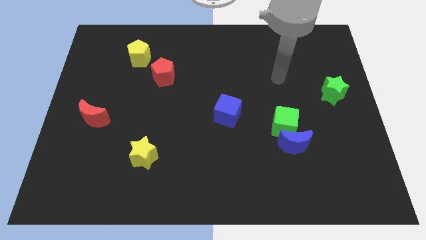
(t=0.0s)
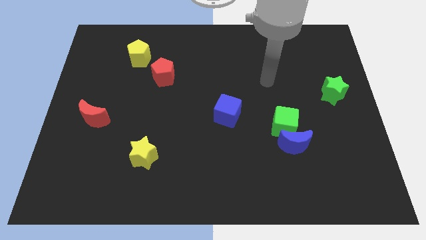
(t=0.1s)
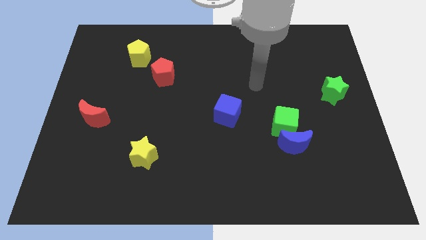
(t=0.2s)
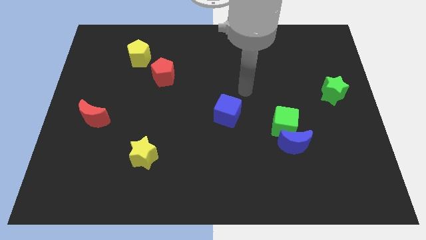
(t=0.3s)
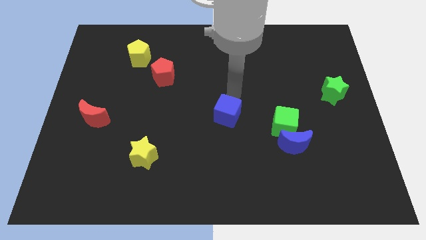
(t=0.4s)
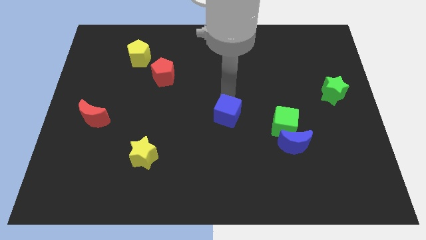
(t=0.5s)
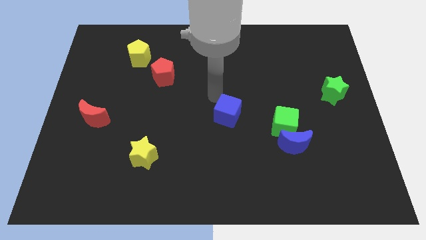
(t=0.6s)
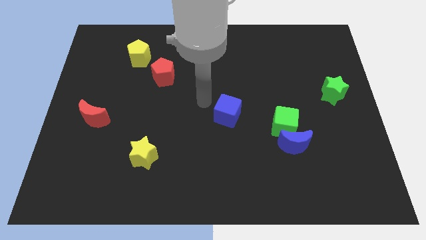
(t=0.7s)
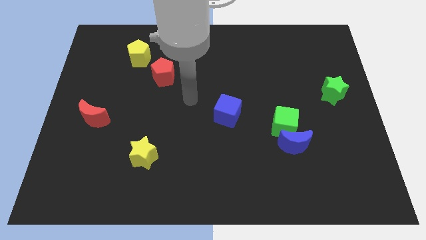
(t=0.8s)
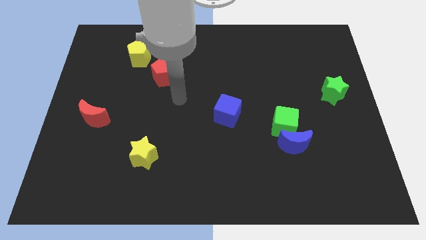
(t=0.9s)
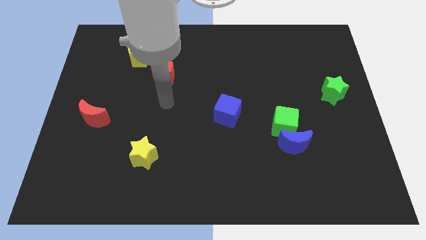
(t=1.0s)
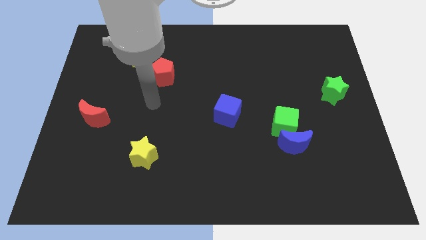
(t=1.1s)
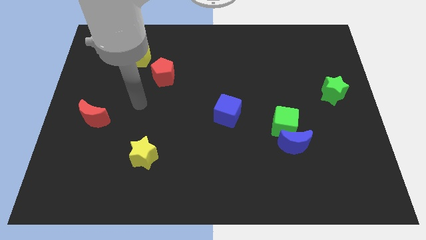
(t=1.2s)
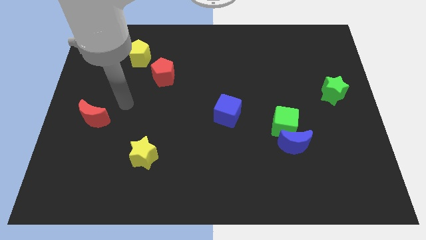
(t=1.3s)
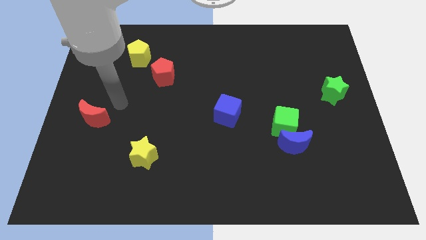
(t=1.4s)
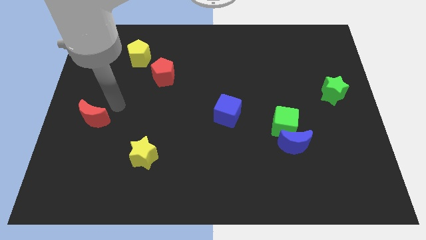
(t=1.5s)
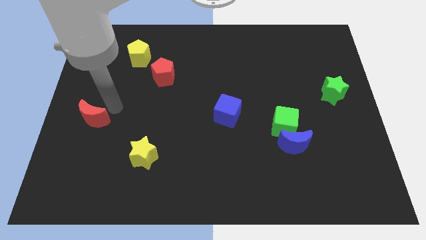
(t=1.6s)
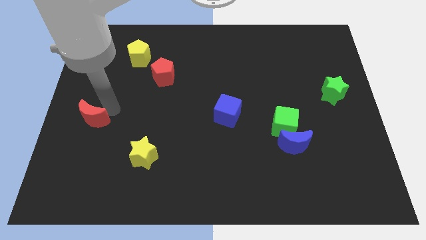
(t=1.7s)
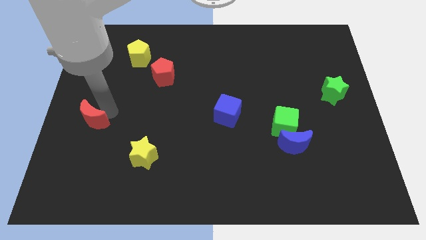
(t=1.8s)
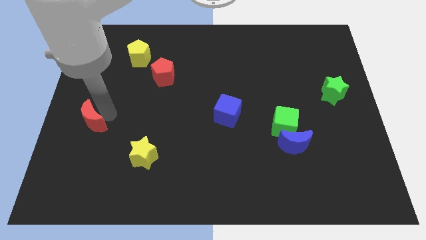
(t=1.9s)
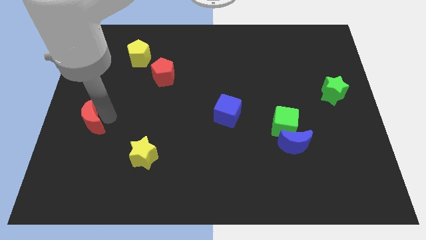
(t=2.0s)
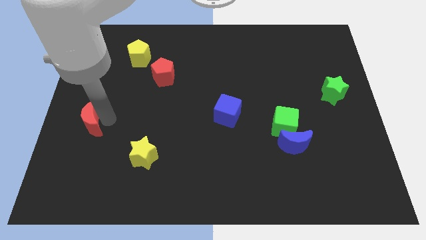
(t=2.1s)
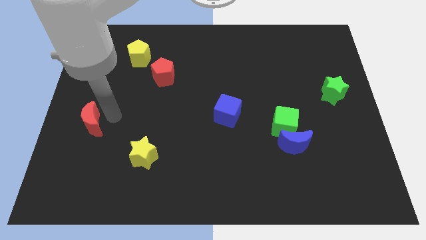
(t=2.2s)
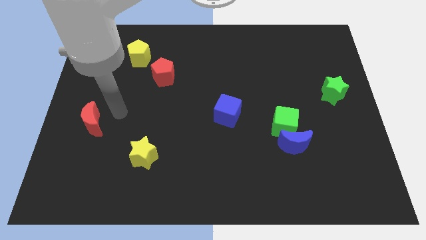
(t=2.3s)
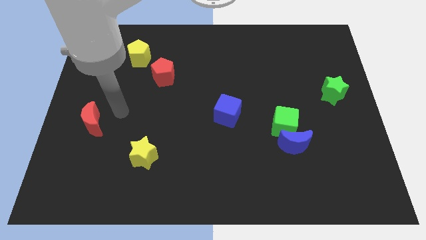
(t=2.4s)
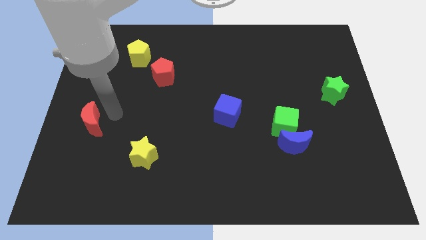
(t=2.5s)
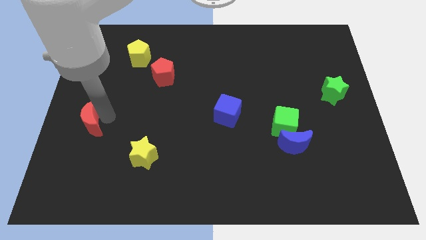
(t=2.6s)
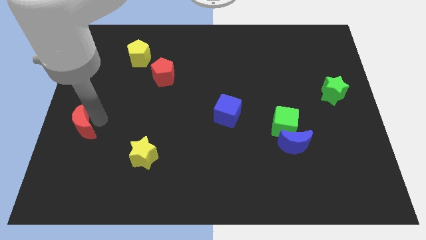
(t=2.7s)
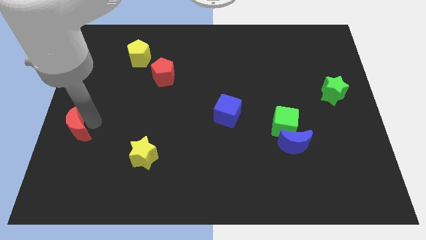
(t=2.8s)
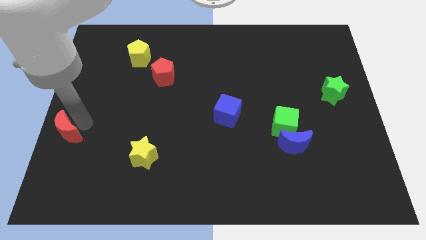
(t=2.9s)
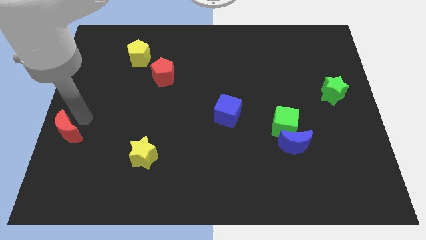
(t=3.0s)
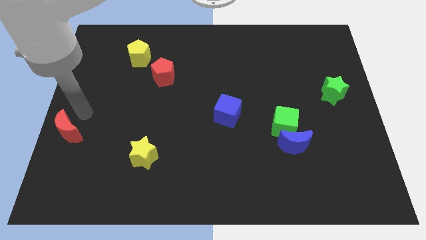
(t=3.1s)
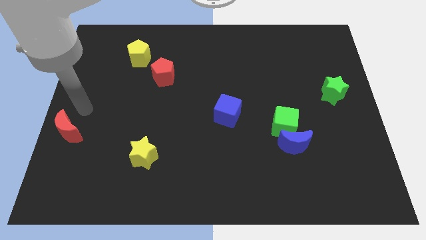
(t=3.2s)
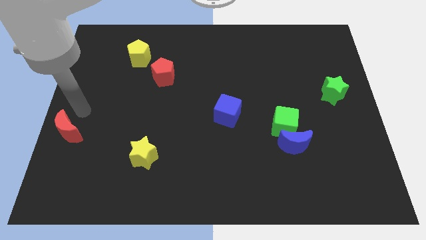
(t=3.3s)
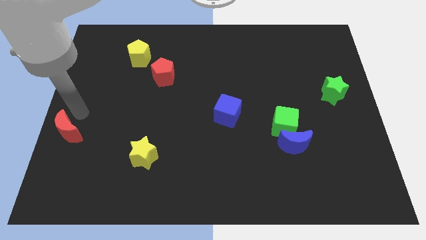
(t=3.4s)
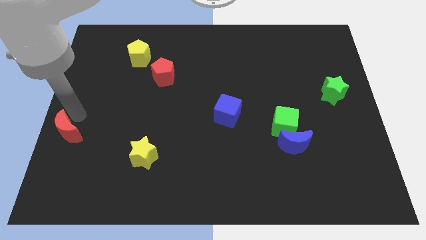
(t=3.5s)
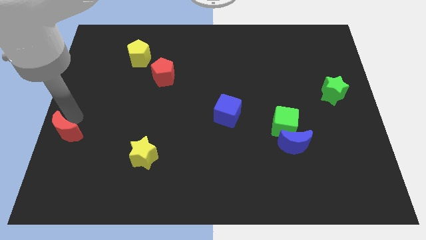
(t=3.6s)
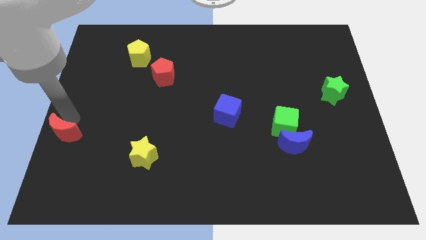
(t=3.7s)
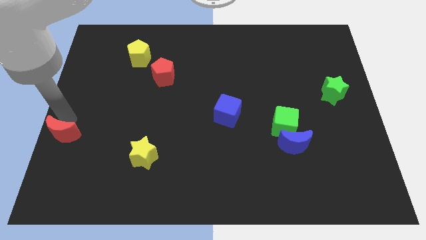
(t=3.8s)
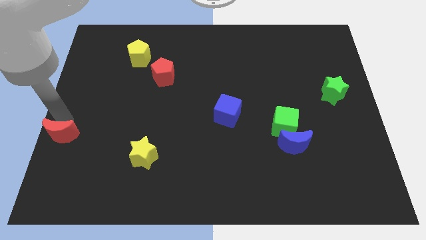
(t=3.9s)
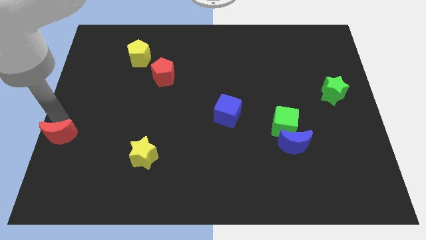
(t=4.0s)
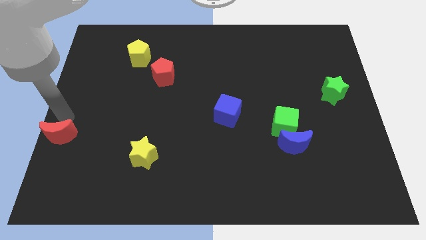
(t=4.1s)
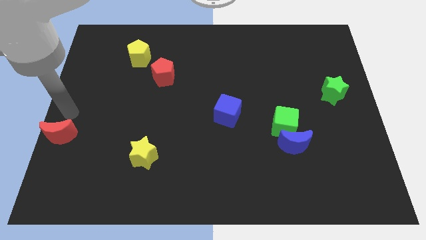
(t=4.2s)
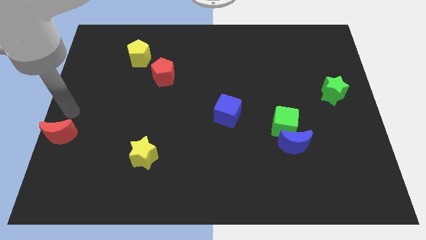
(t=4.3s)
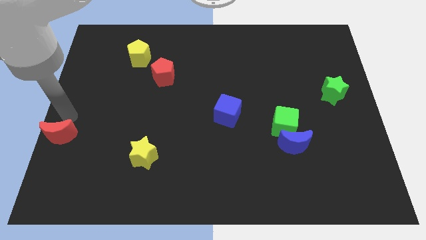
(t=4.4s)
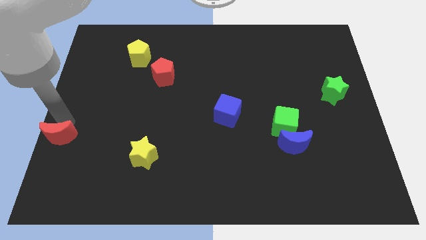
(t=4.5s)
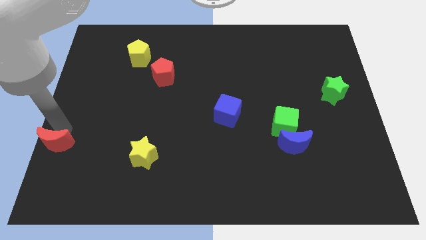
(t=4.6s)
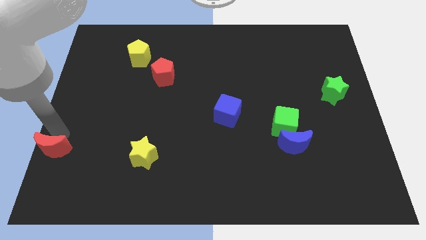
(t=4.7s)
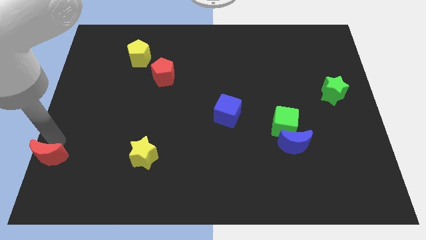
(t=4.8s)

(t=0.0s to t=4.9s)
move the red moon to the lower left corner

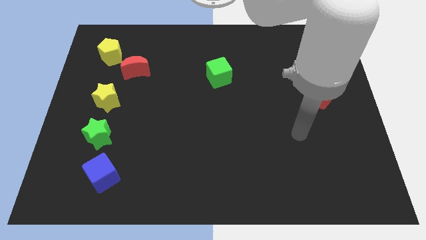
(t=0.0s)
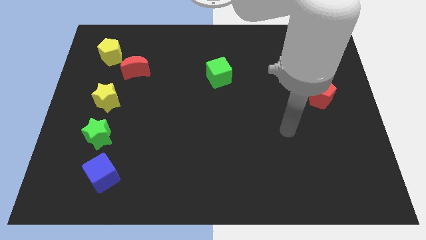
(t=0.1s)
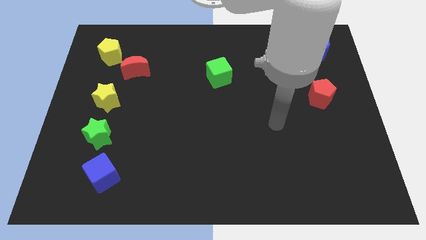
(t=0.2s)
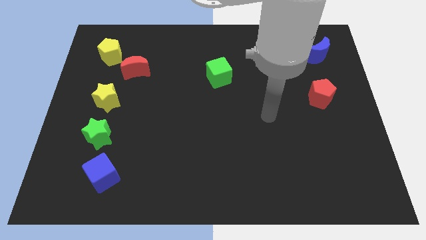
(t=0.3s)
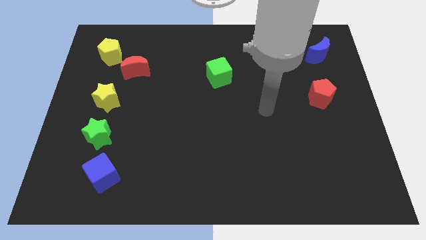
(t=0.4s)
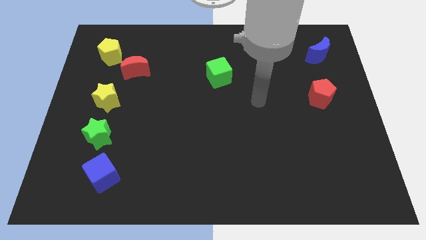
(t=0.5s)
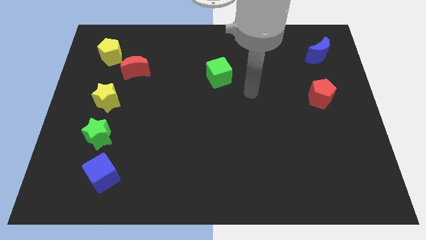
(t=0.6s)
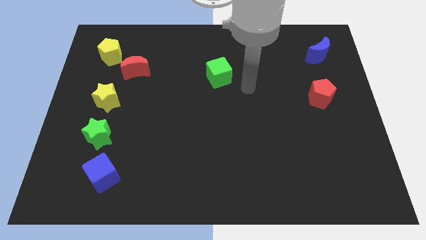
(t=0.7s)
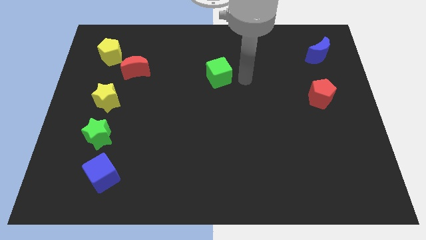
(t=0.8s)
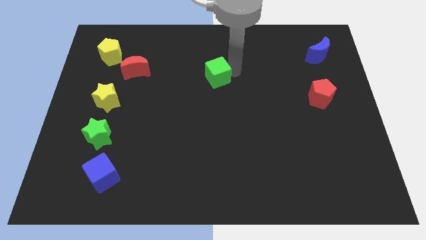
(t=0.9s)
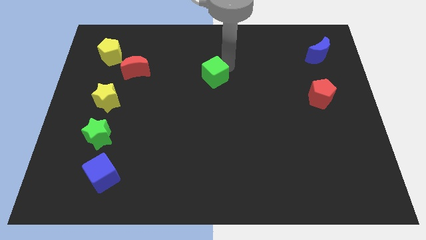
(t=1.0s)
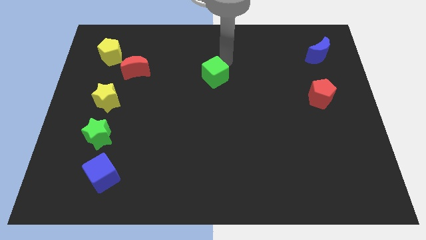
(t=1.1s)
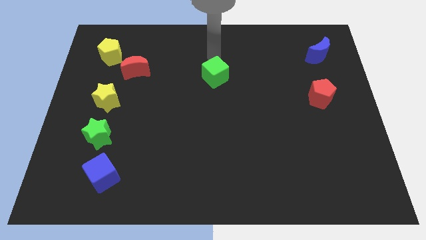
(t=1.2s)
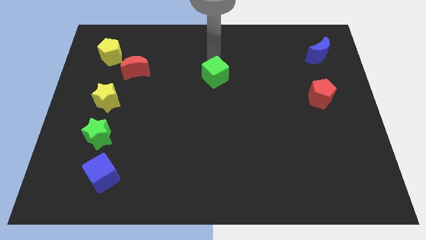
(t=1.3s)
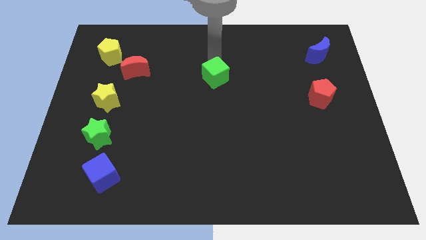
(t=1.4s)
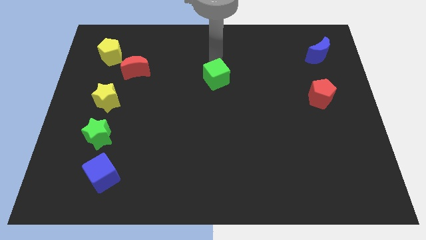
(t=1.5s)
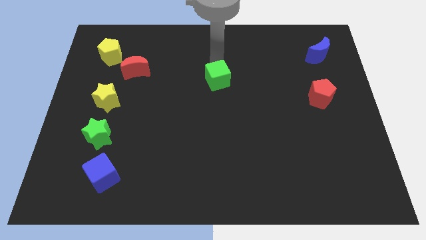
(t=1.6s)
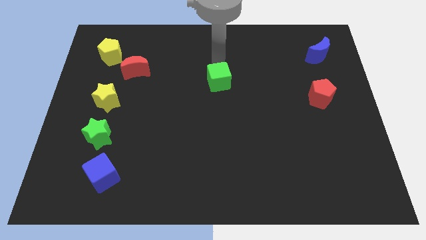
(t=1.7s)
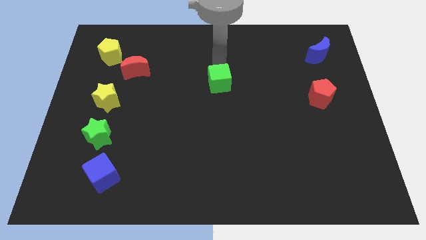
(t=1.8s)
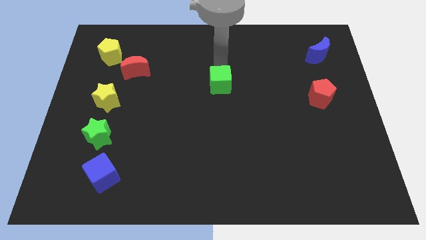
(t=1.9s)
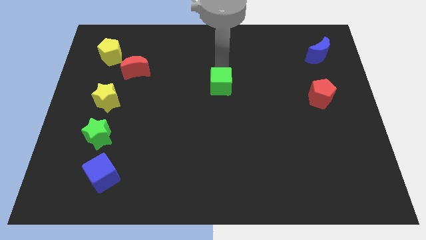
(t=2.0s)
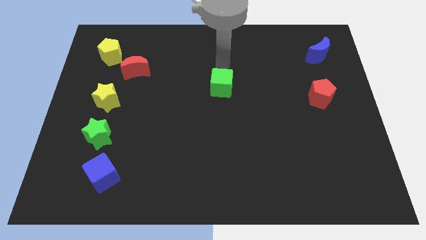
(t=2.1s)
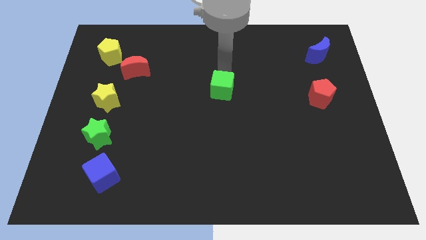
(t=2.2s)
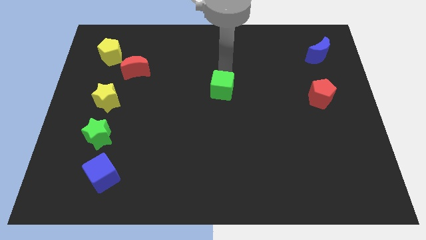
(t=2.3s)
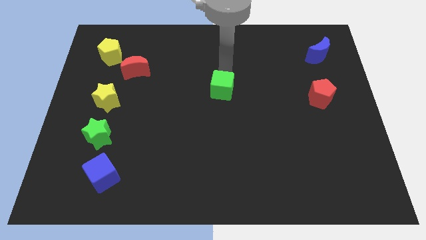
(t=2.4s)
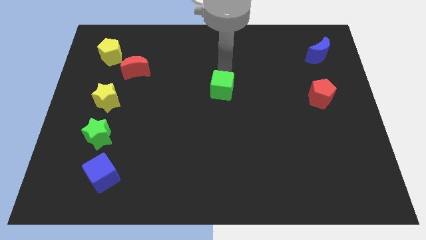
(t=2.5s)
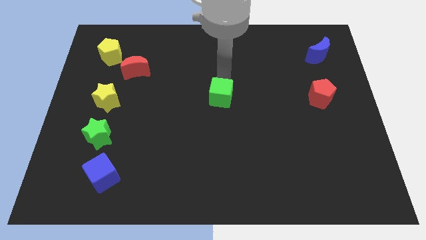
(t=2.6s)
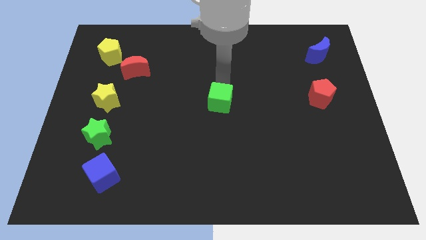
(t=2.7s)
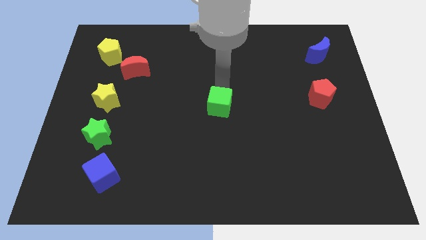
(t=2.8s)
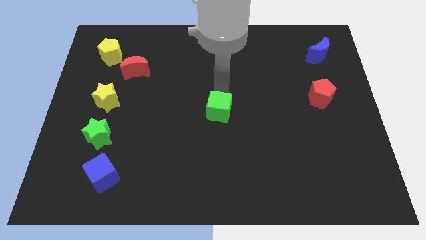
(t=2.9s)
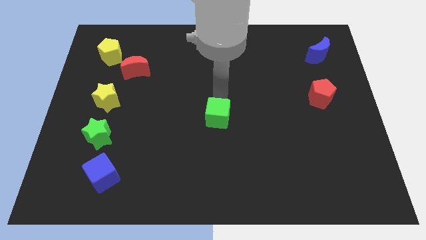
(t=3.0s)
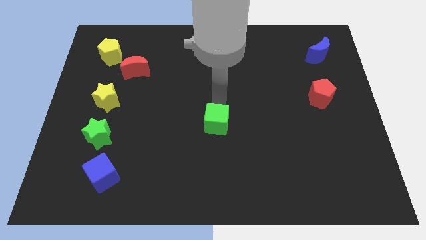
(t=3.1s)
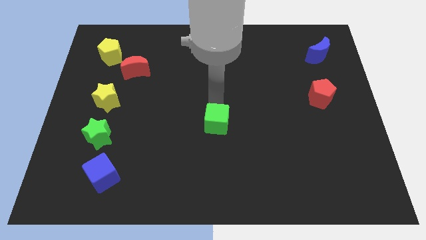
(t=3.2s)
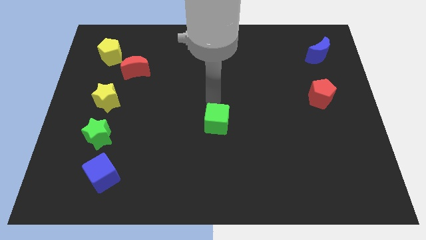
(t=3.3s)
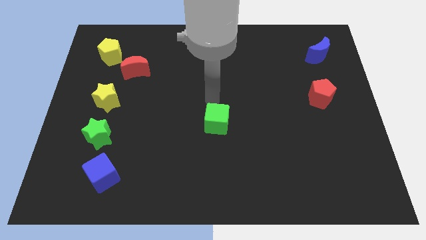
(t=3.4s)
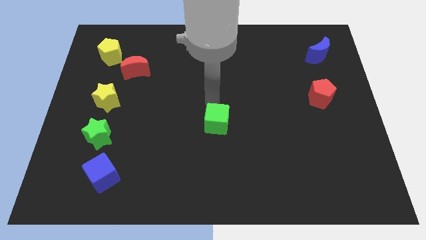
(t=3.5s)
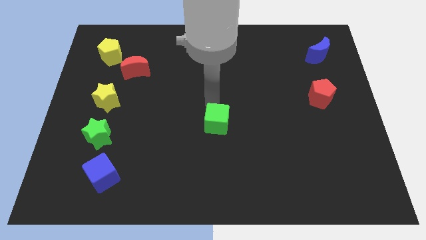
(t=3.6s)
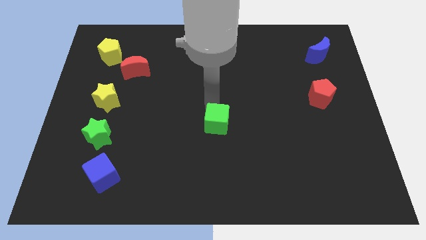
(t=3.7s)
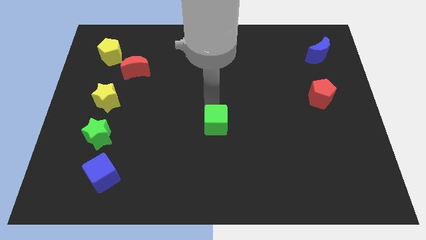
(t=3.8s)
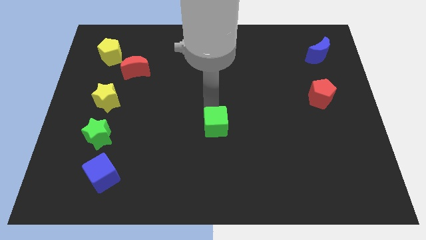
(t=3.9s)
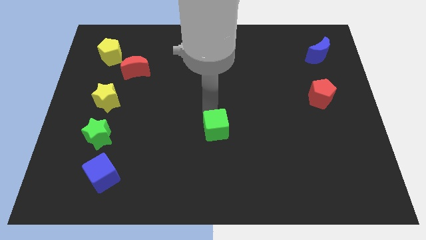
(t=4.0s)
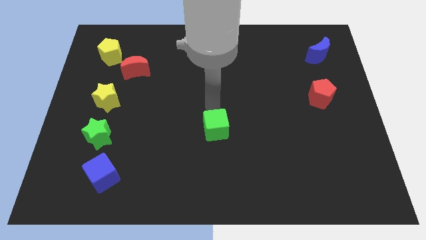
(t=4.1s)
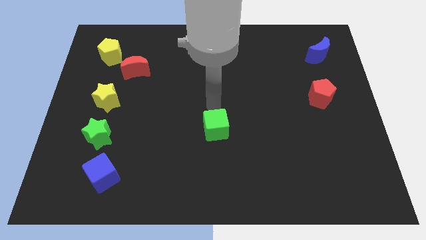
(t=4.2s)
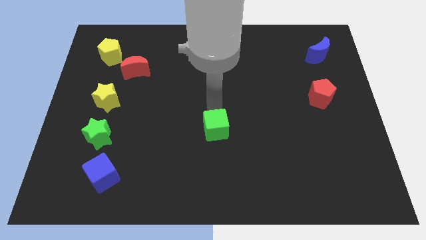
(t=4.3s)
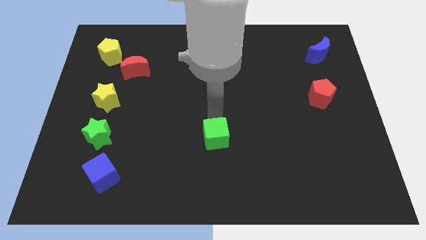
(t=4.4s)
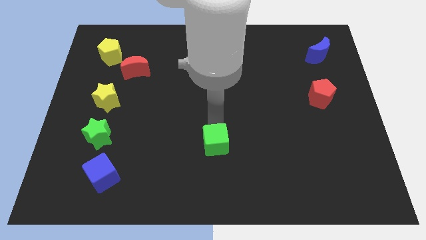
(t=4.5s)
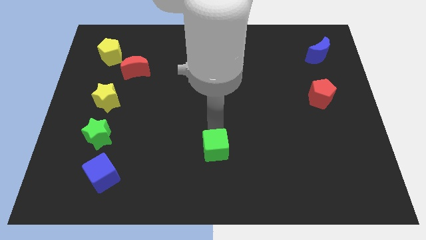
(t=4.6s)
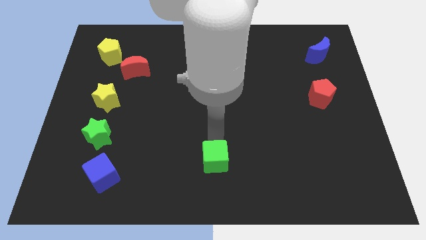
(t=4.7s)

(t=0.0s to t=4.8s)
move the green cube to the bottom side
